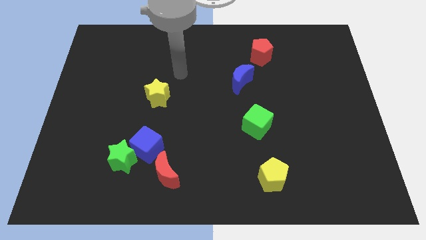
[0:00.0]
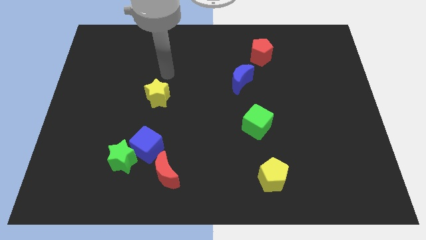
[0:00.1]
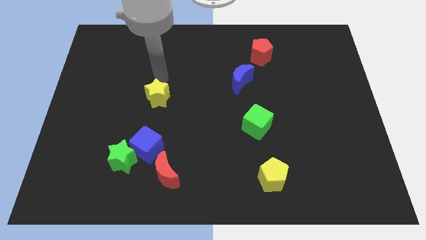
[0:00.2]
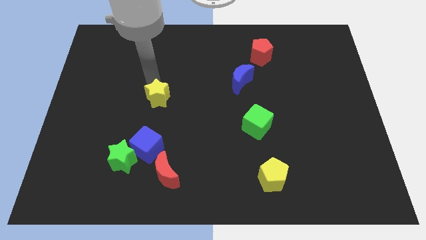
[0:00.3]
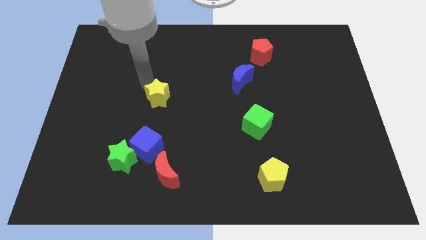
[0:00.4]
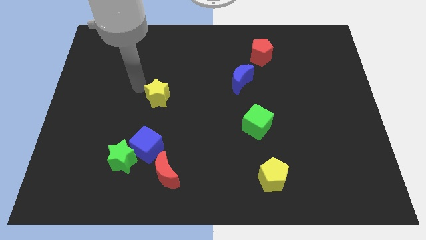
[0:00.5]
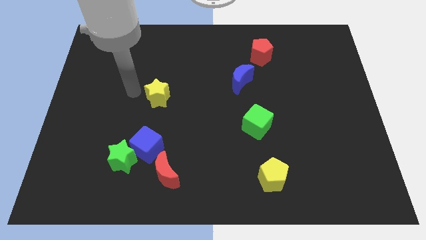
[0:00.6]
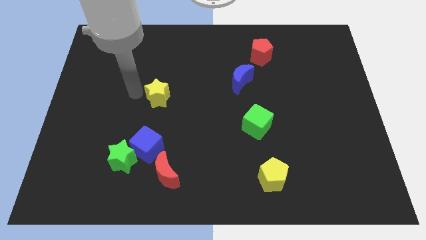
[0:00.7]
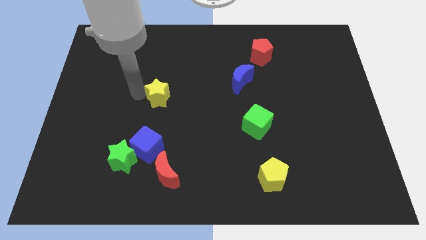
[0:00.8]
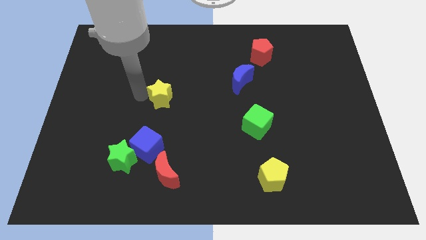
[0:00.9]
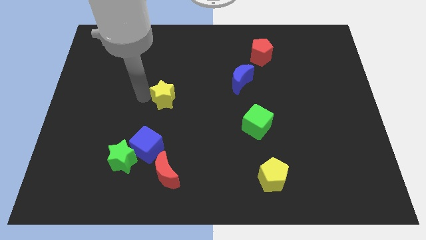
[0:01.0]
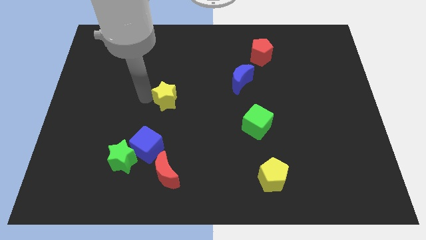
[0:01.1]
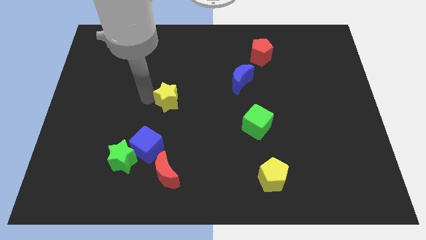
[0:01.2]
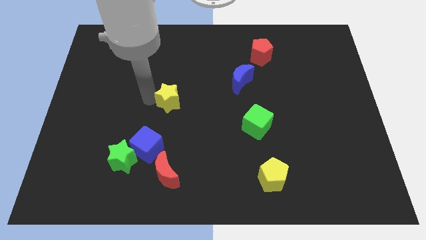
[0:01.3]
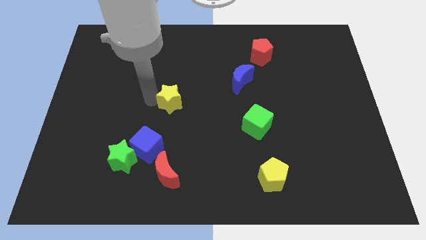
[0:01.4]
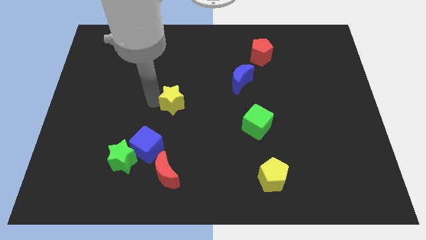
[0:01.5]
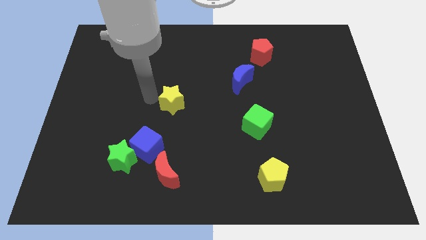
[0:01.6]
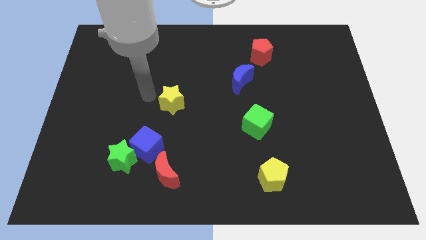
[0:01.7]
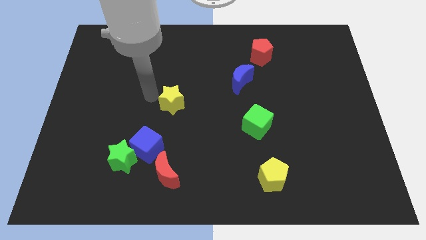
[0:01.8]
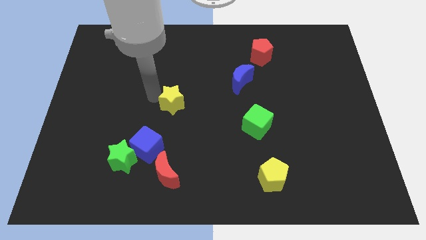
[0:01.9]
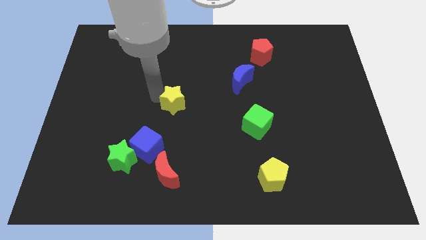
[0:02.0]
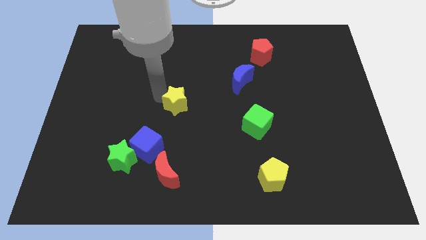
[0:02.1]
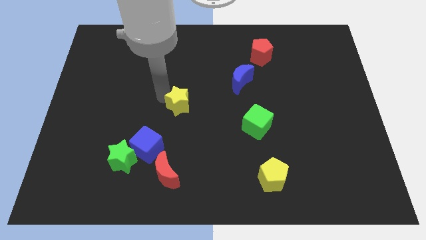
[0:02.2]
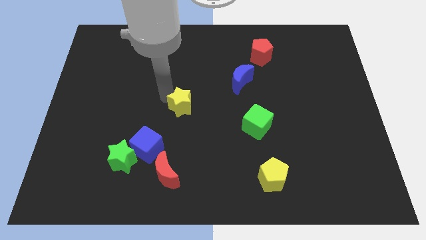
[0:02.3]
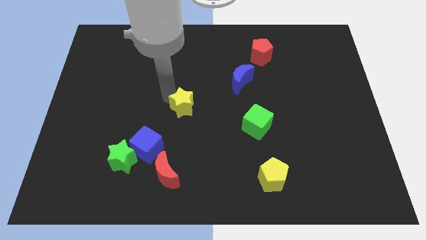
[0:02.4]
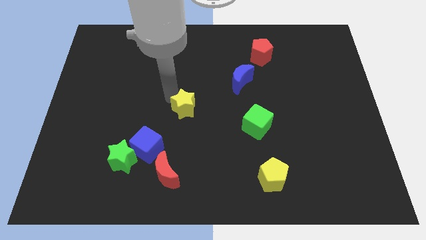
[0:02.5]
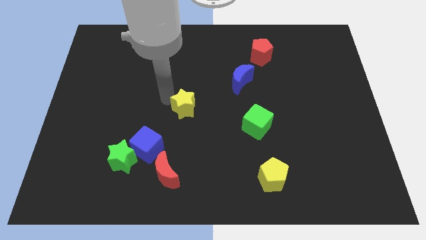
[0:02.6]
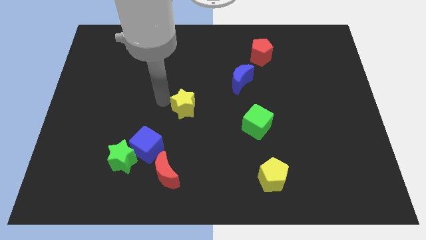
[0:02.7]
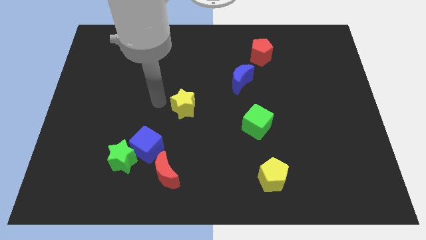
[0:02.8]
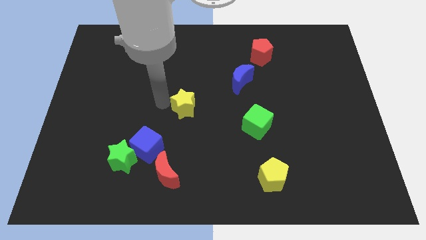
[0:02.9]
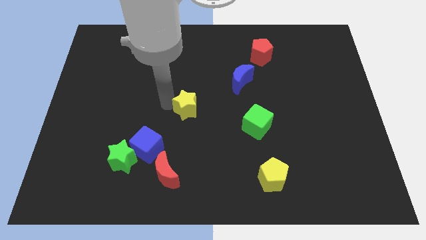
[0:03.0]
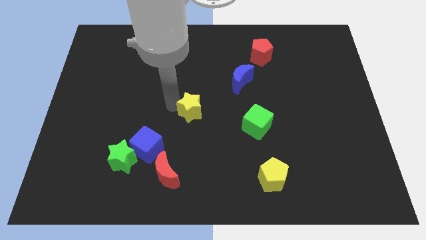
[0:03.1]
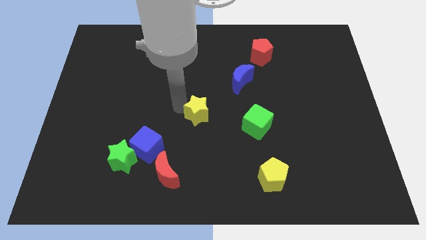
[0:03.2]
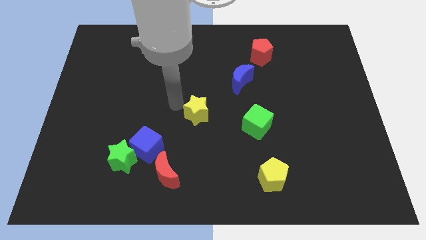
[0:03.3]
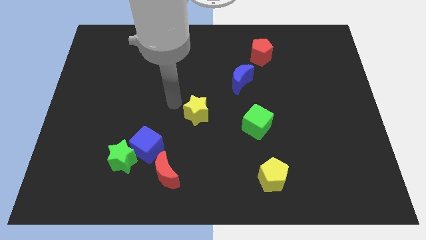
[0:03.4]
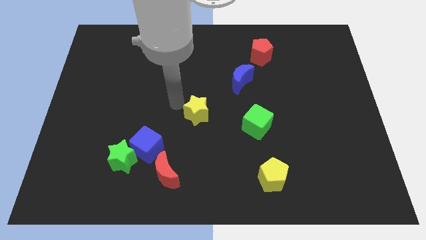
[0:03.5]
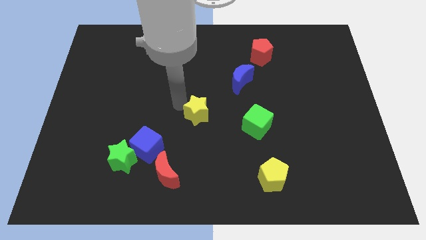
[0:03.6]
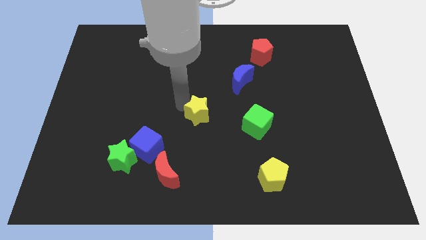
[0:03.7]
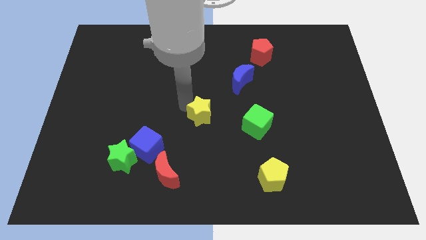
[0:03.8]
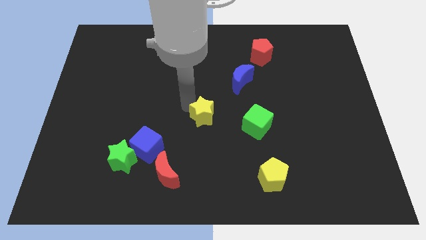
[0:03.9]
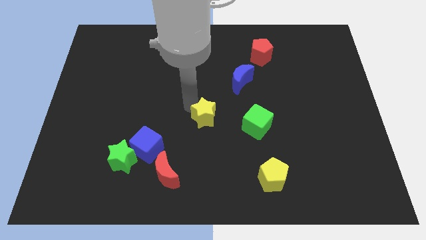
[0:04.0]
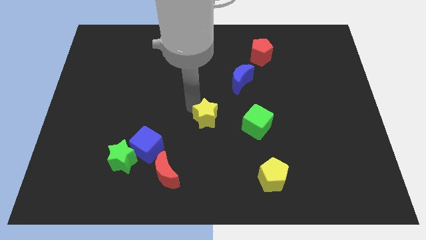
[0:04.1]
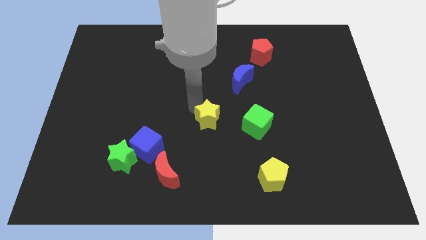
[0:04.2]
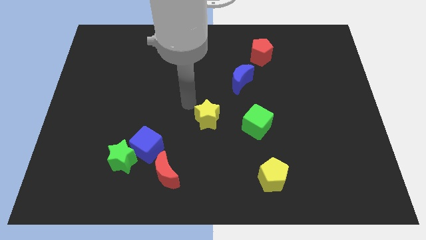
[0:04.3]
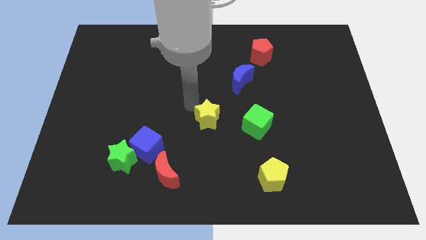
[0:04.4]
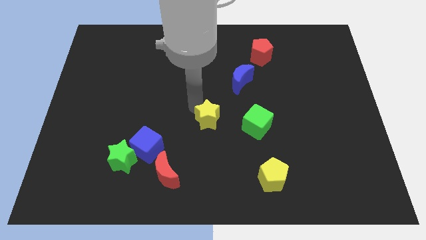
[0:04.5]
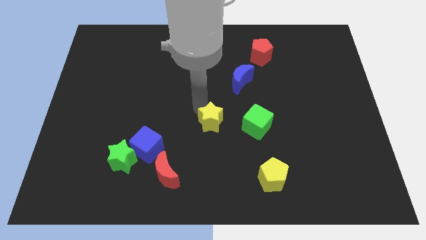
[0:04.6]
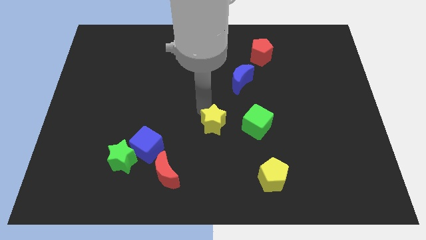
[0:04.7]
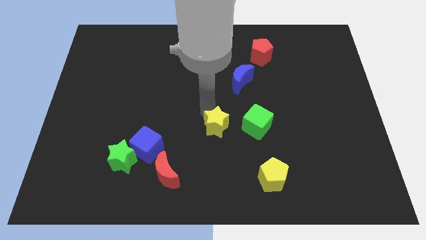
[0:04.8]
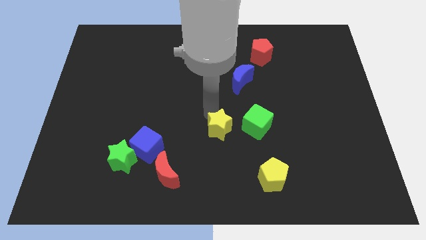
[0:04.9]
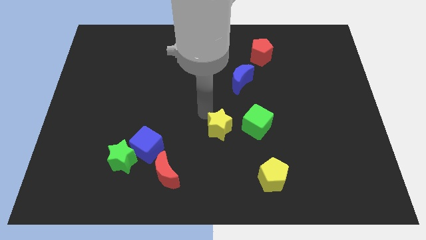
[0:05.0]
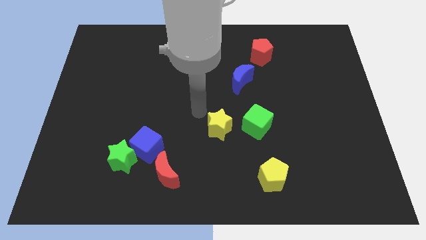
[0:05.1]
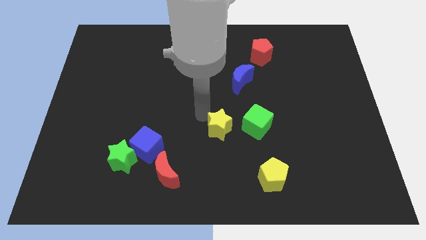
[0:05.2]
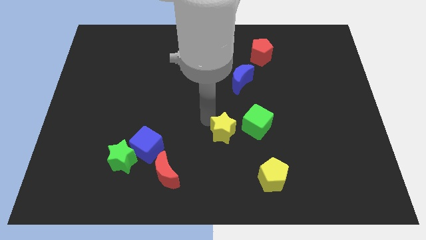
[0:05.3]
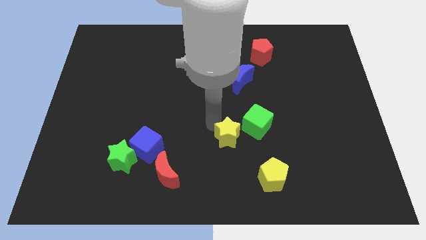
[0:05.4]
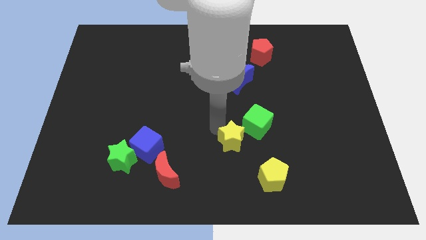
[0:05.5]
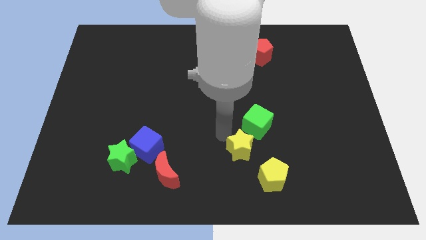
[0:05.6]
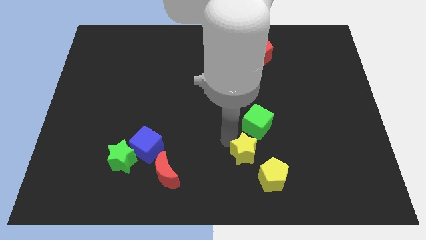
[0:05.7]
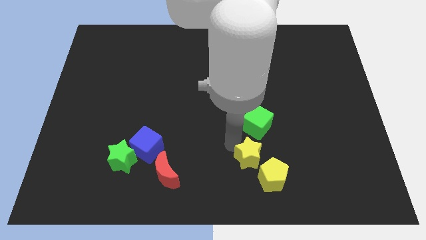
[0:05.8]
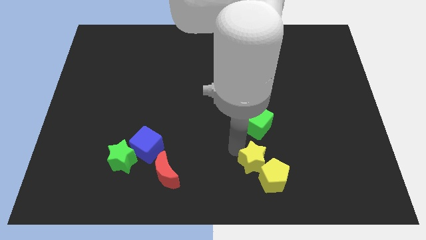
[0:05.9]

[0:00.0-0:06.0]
push the yellow star to the yellow pentagon

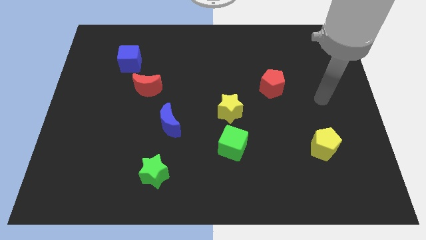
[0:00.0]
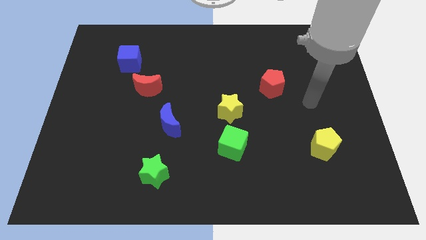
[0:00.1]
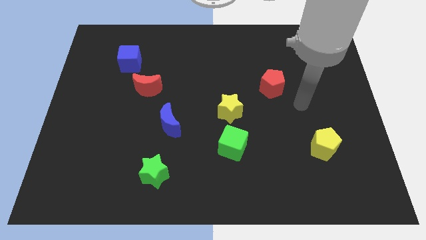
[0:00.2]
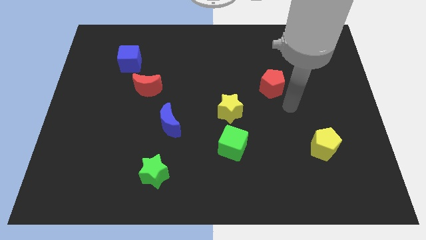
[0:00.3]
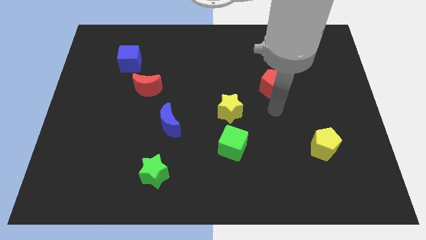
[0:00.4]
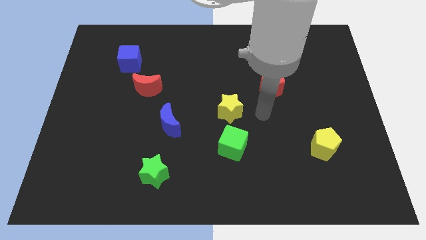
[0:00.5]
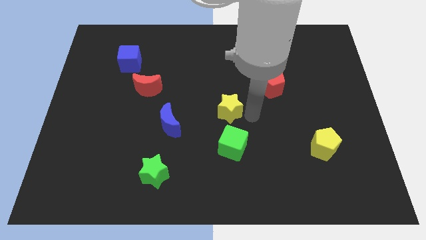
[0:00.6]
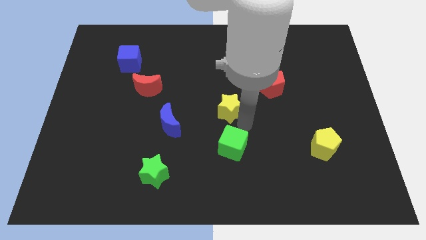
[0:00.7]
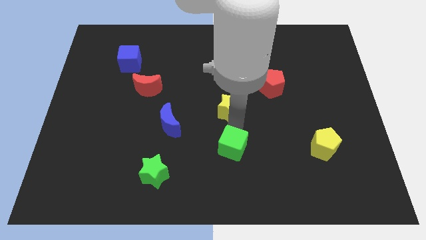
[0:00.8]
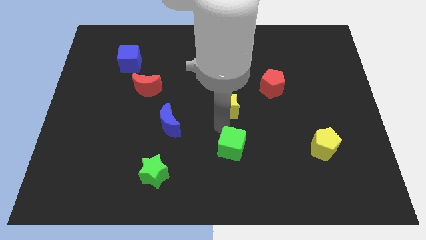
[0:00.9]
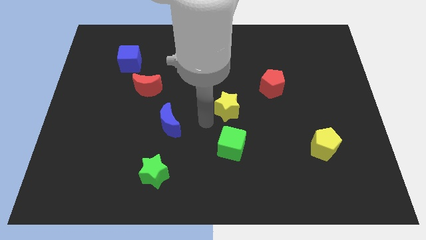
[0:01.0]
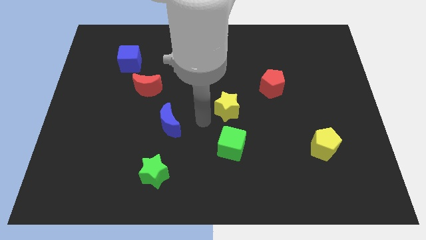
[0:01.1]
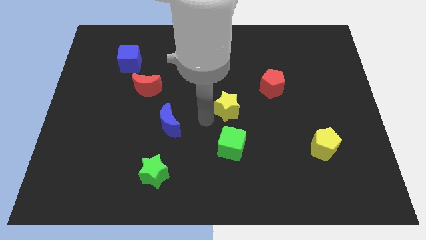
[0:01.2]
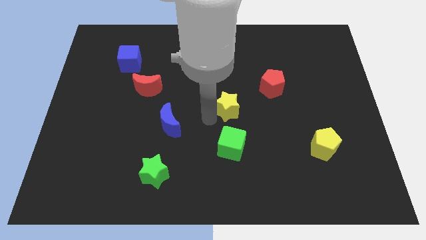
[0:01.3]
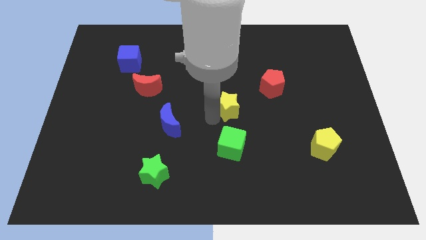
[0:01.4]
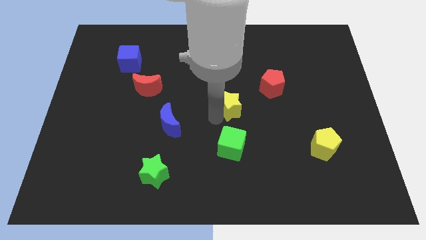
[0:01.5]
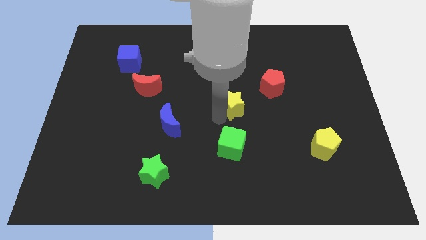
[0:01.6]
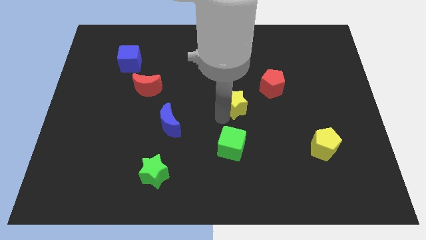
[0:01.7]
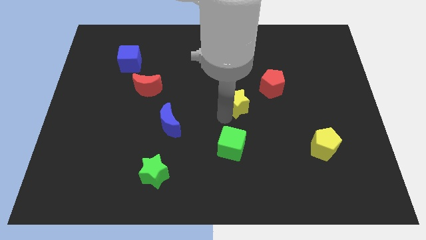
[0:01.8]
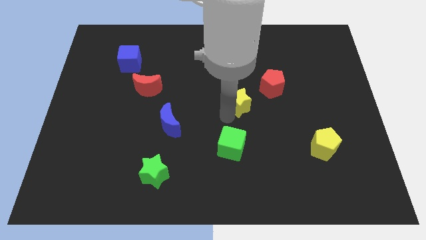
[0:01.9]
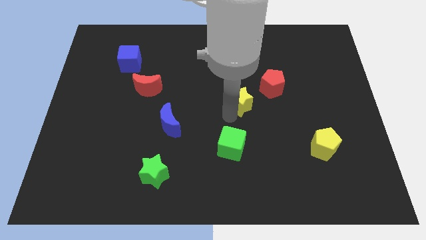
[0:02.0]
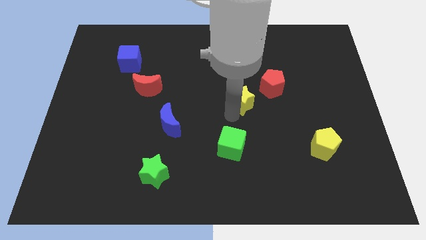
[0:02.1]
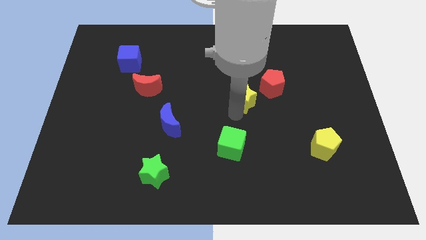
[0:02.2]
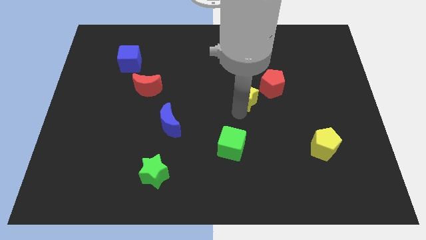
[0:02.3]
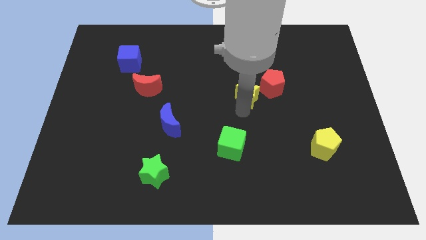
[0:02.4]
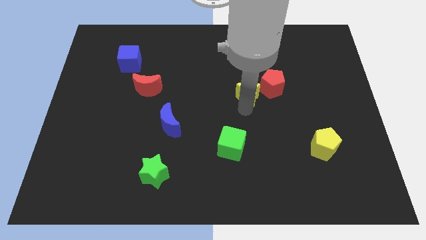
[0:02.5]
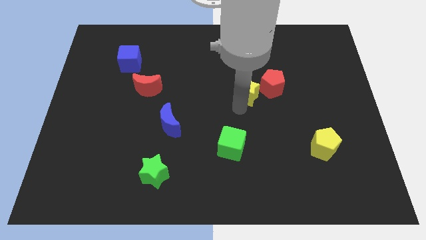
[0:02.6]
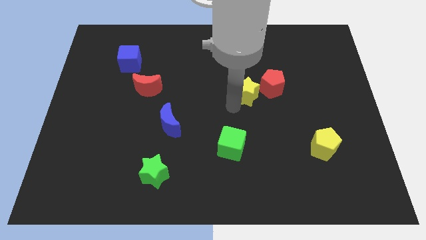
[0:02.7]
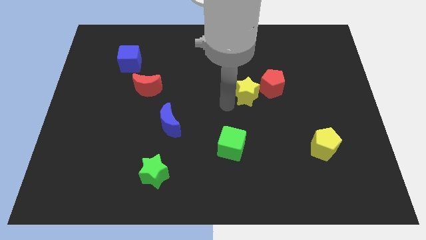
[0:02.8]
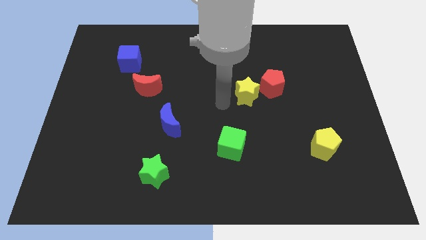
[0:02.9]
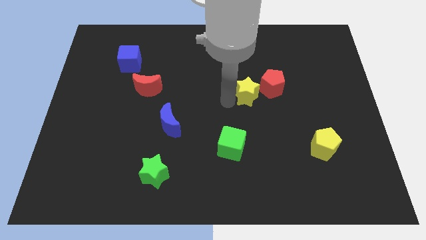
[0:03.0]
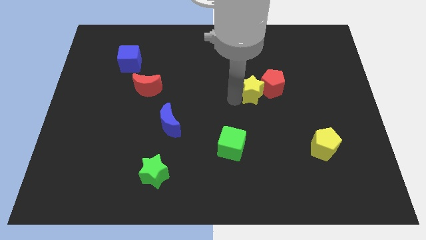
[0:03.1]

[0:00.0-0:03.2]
push the yellow star towards the red pentagon
